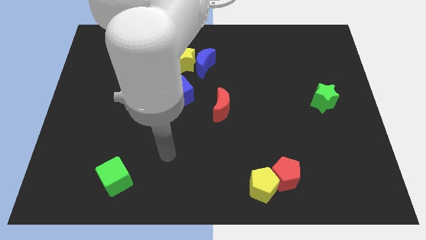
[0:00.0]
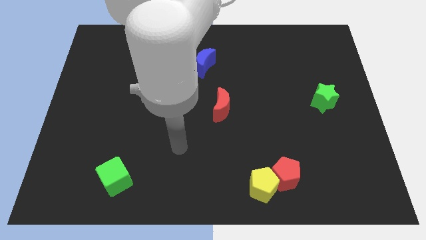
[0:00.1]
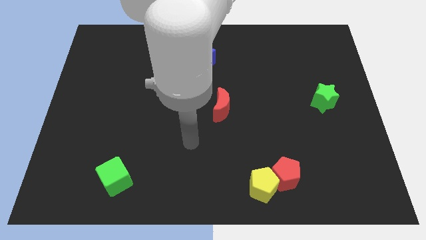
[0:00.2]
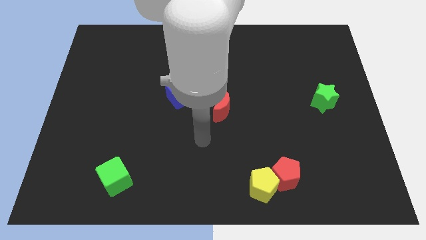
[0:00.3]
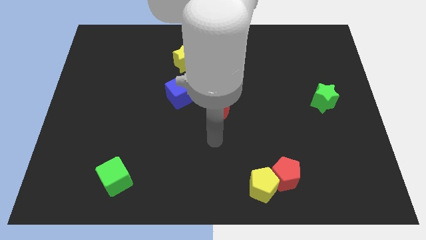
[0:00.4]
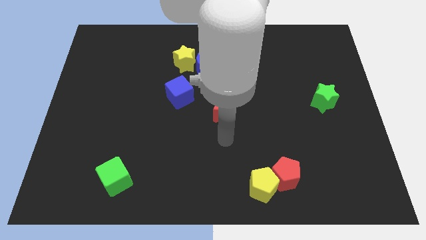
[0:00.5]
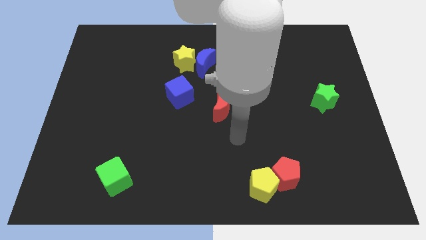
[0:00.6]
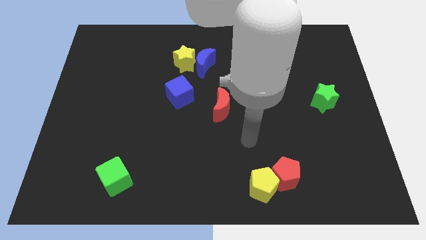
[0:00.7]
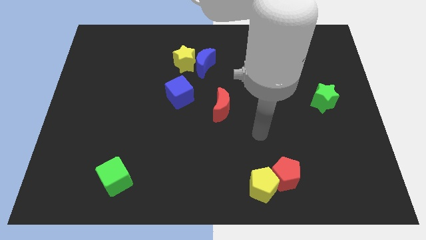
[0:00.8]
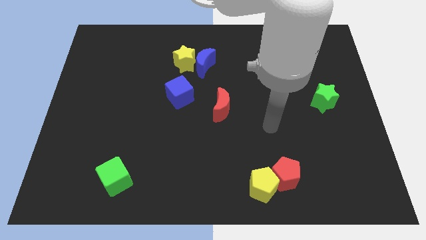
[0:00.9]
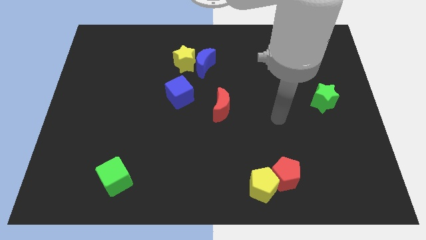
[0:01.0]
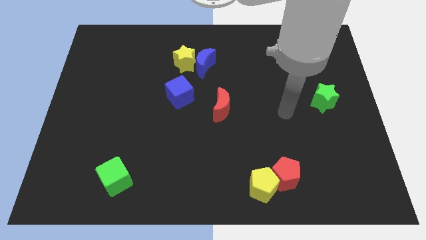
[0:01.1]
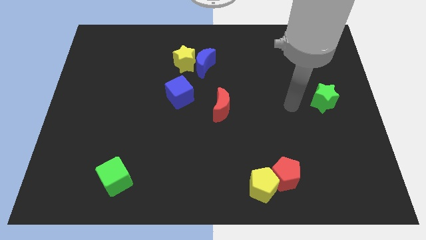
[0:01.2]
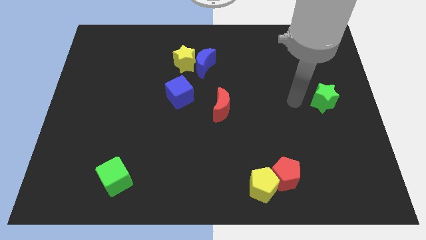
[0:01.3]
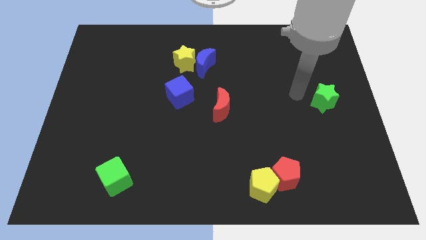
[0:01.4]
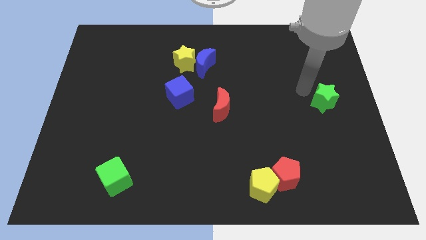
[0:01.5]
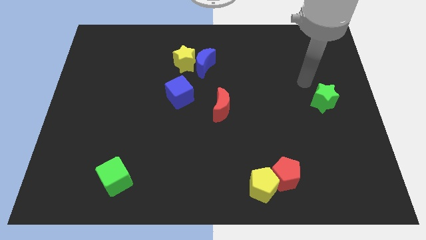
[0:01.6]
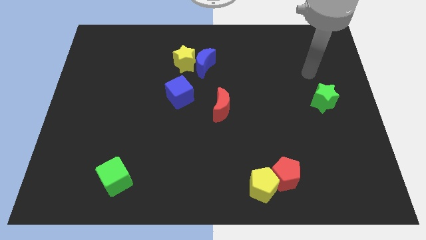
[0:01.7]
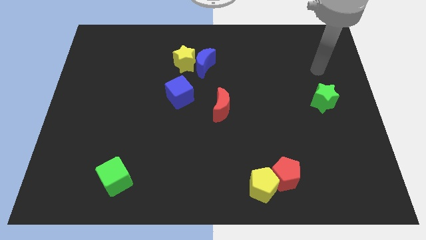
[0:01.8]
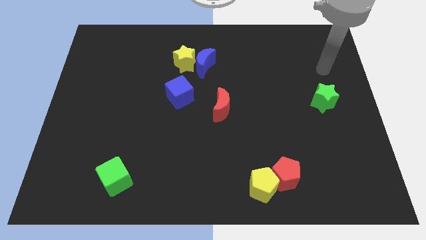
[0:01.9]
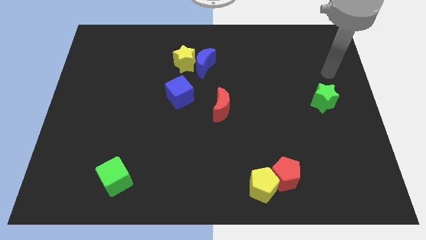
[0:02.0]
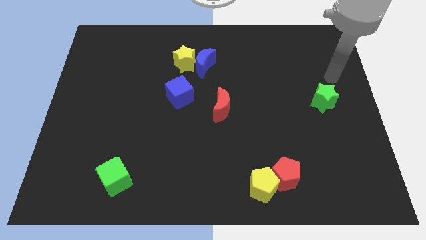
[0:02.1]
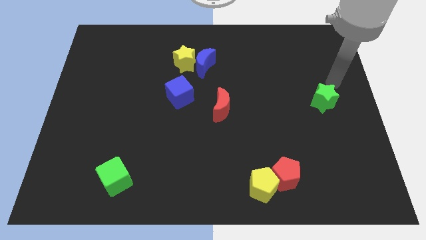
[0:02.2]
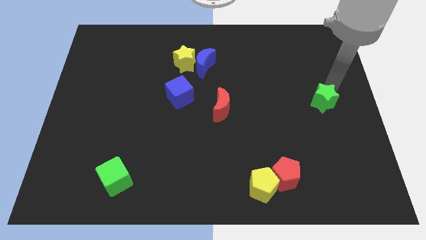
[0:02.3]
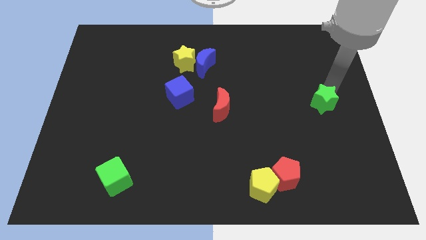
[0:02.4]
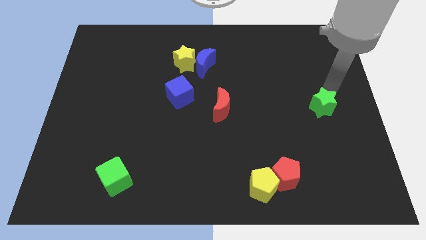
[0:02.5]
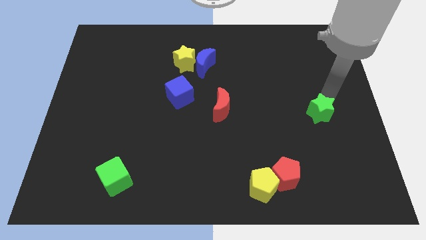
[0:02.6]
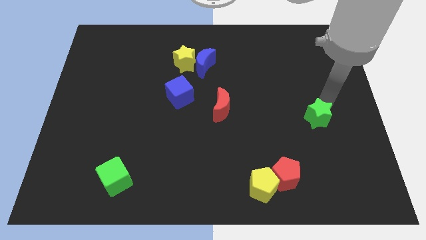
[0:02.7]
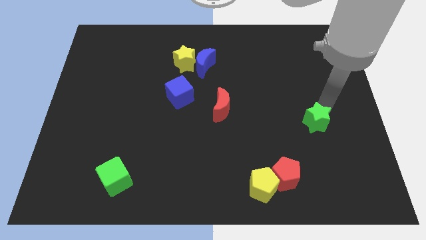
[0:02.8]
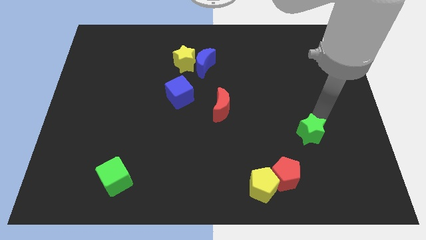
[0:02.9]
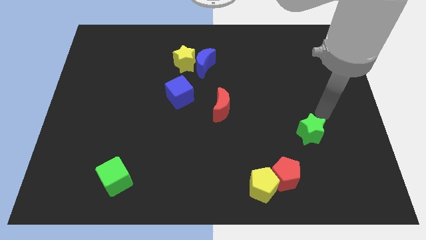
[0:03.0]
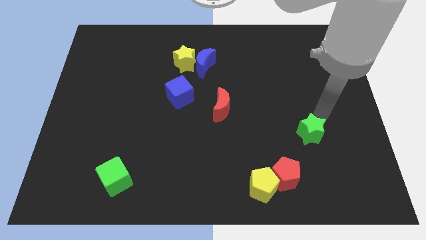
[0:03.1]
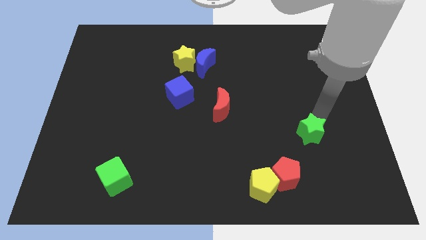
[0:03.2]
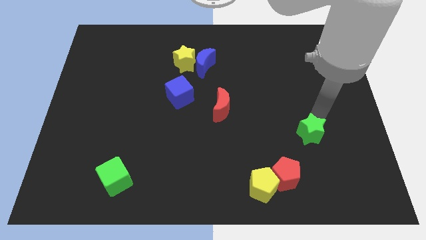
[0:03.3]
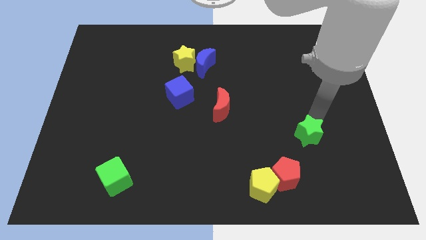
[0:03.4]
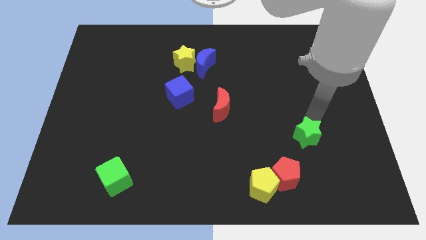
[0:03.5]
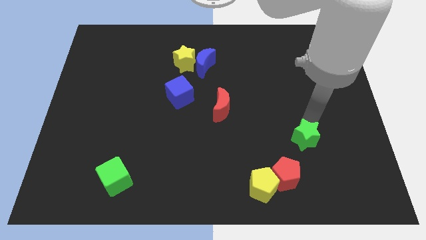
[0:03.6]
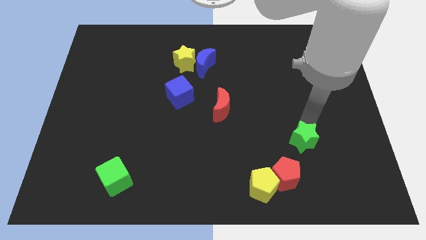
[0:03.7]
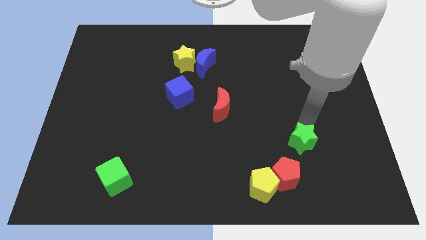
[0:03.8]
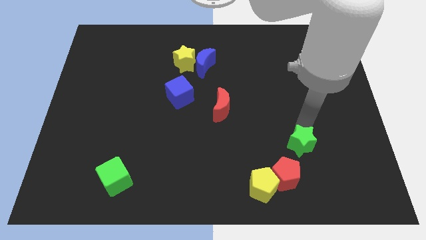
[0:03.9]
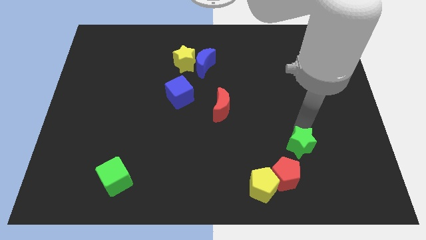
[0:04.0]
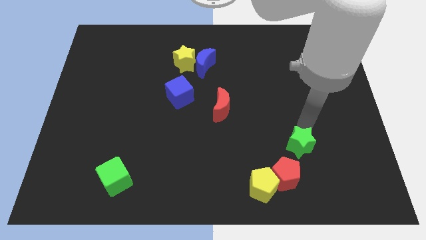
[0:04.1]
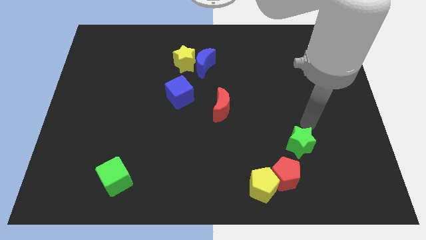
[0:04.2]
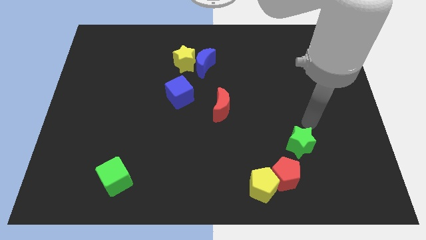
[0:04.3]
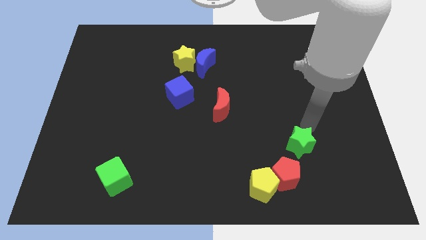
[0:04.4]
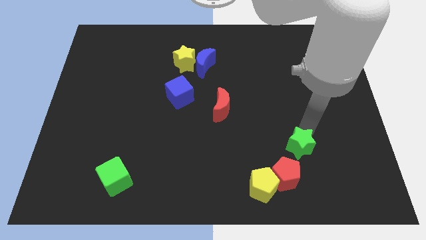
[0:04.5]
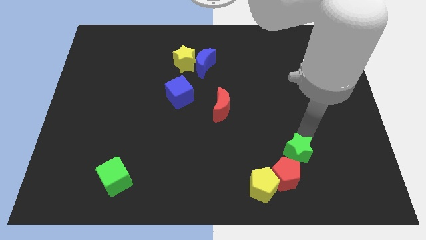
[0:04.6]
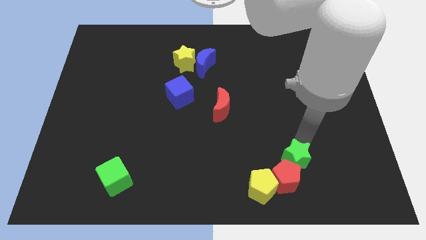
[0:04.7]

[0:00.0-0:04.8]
put the green star next to the red pentagon

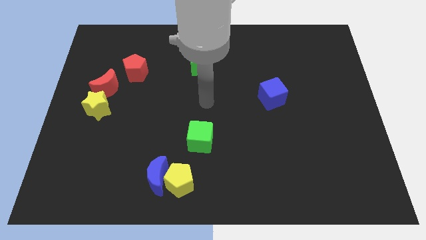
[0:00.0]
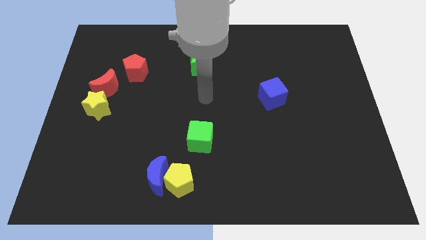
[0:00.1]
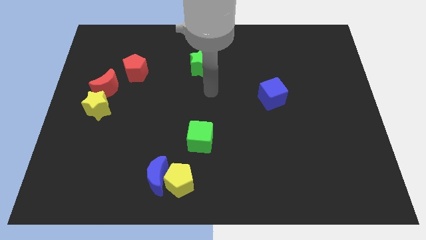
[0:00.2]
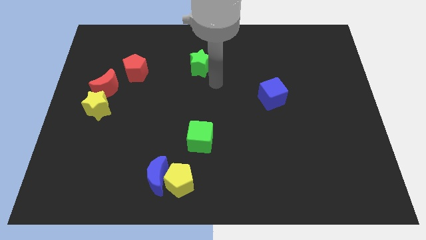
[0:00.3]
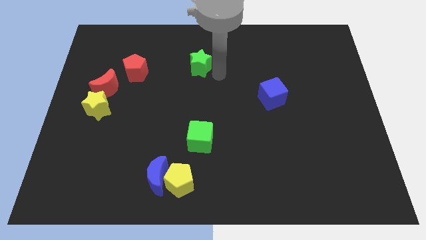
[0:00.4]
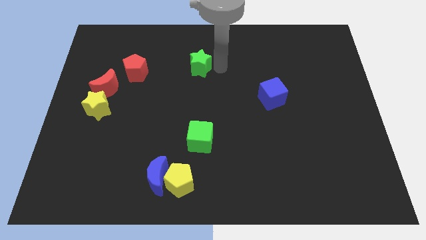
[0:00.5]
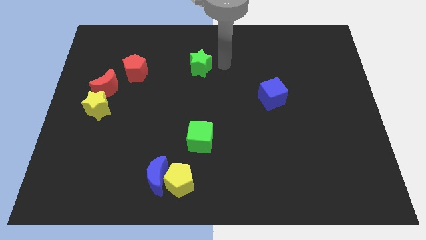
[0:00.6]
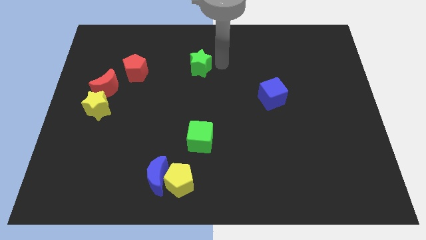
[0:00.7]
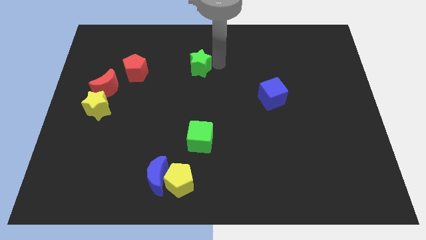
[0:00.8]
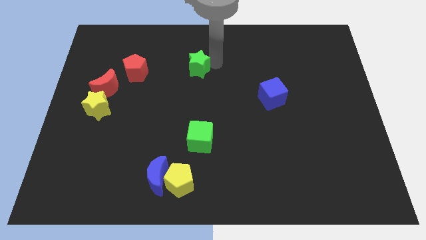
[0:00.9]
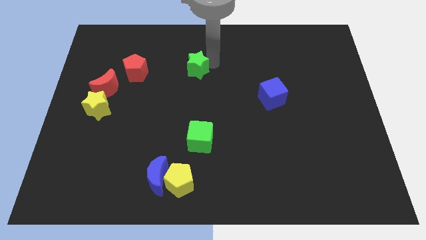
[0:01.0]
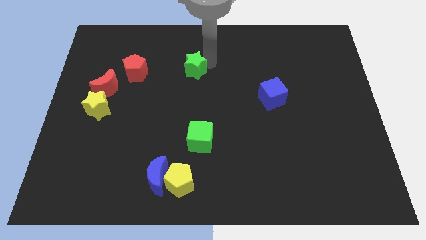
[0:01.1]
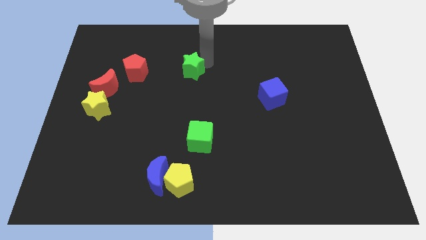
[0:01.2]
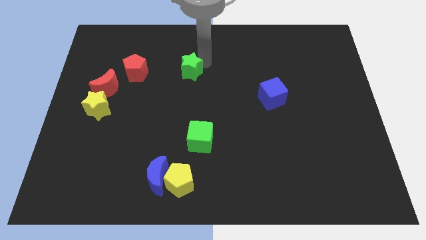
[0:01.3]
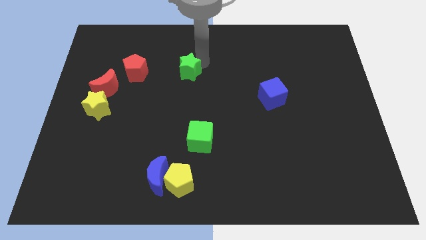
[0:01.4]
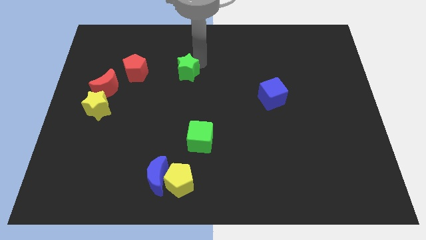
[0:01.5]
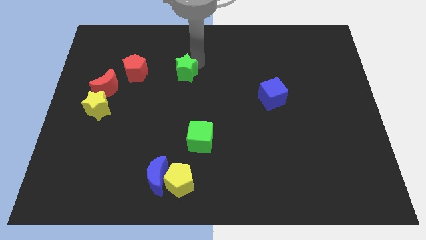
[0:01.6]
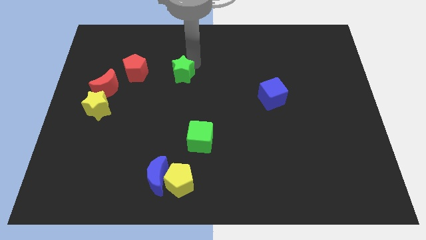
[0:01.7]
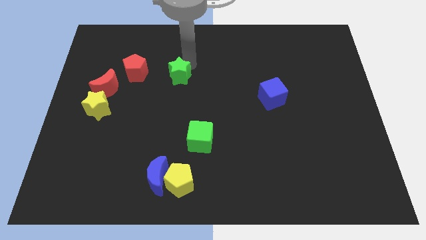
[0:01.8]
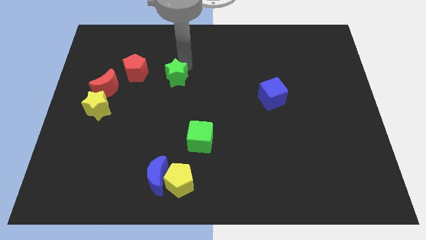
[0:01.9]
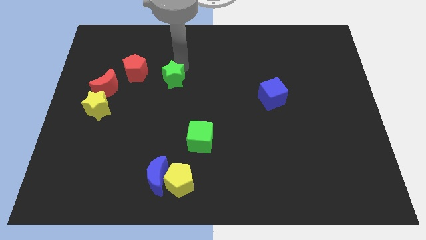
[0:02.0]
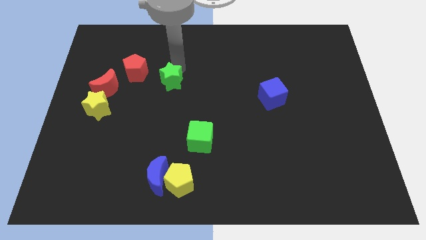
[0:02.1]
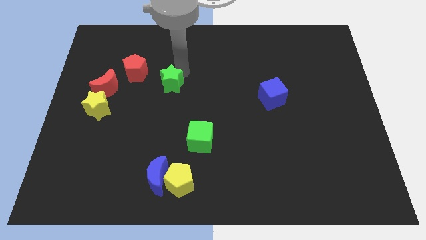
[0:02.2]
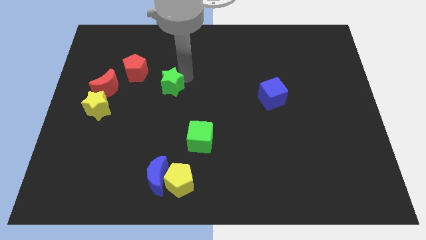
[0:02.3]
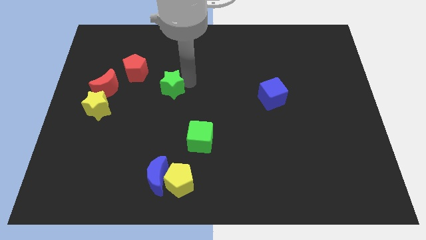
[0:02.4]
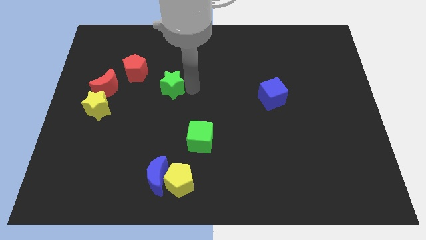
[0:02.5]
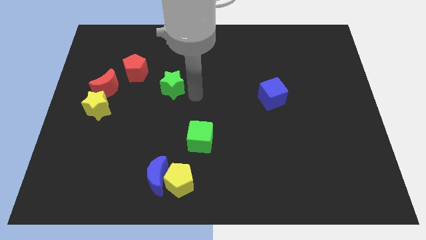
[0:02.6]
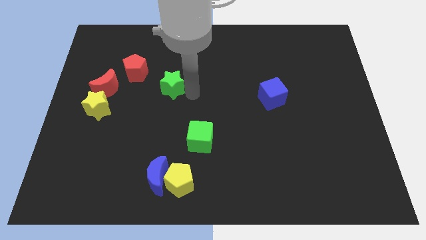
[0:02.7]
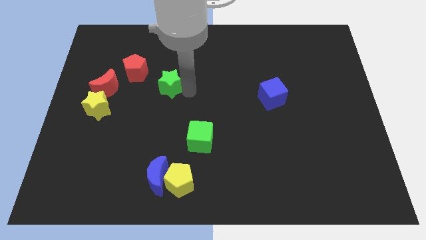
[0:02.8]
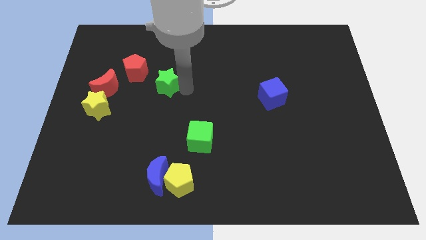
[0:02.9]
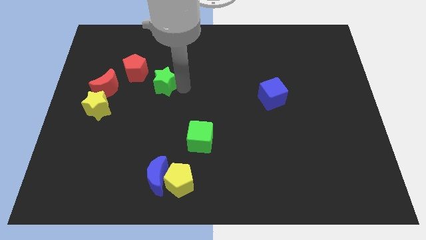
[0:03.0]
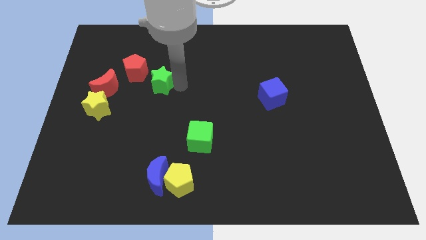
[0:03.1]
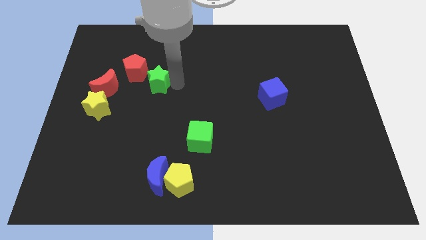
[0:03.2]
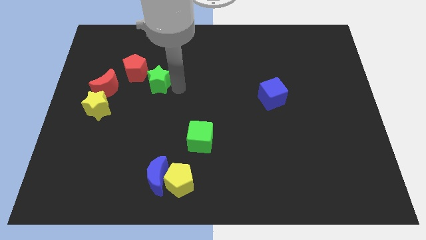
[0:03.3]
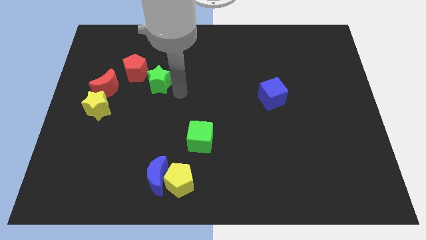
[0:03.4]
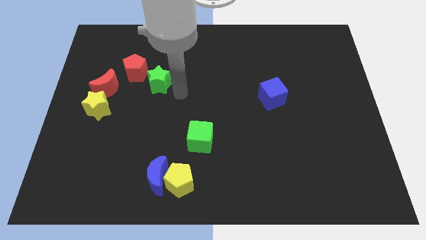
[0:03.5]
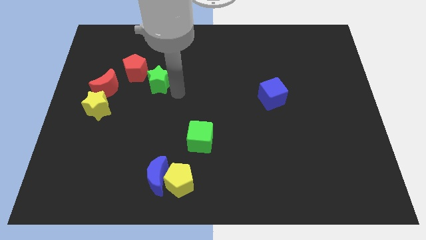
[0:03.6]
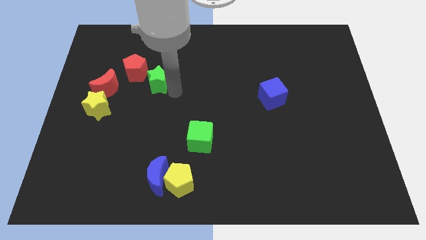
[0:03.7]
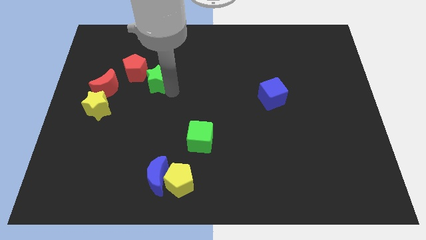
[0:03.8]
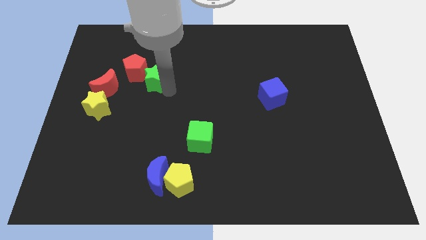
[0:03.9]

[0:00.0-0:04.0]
push the green star next to the red pentagon
